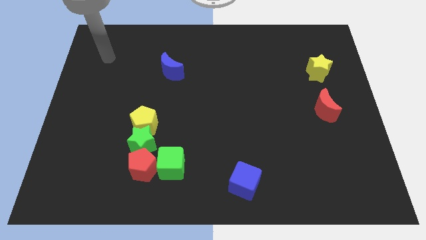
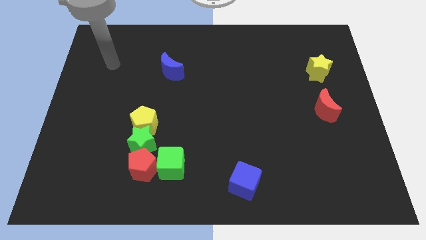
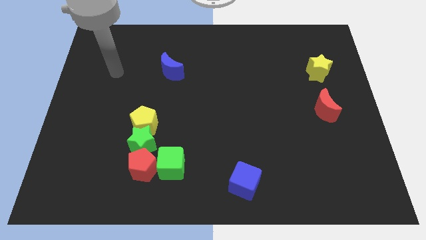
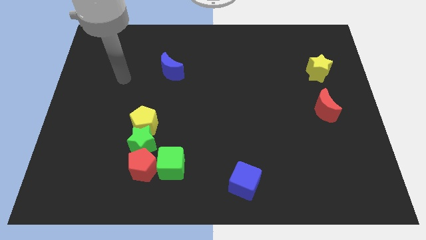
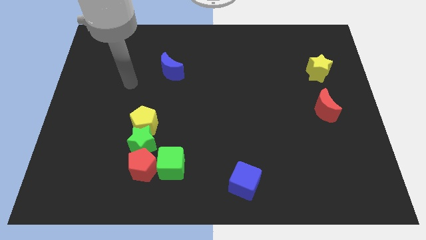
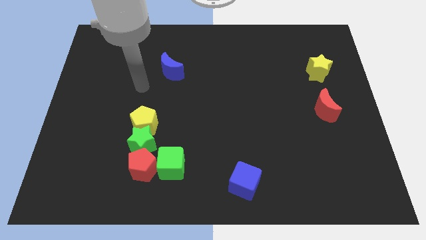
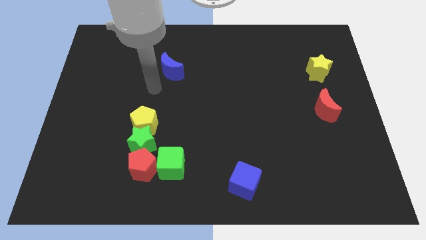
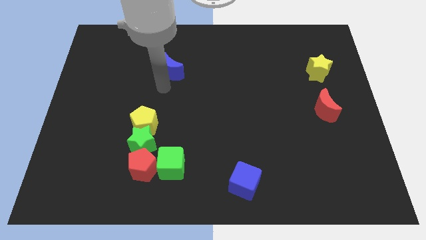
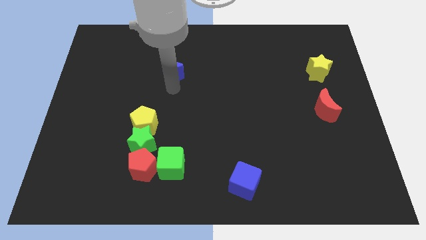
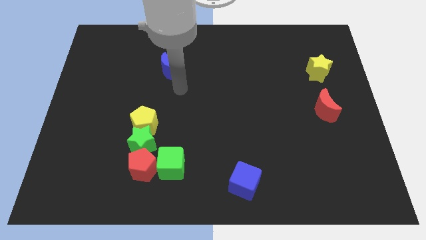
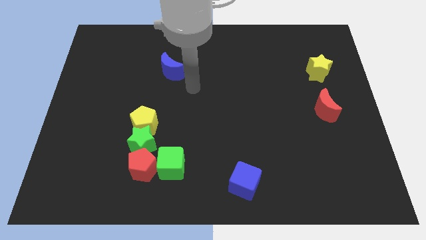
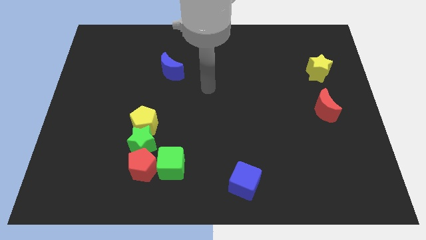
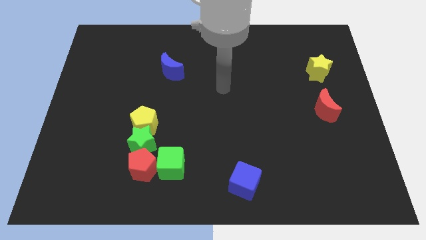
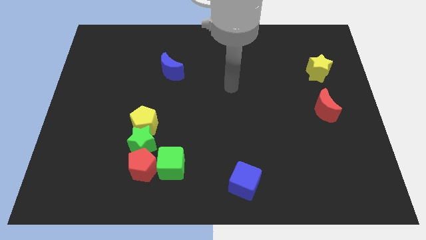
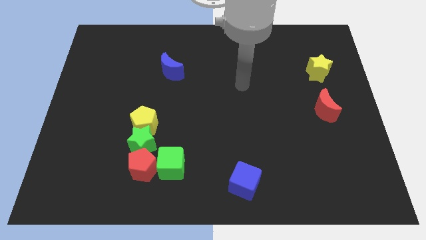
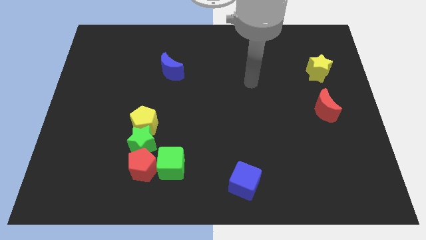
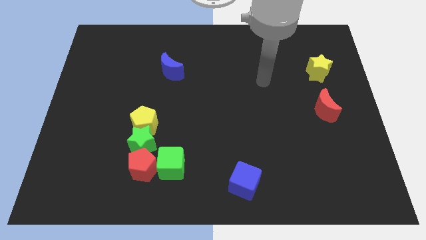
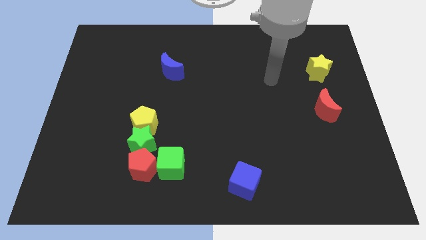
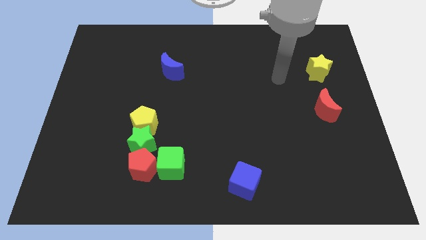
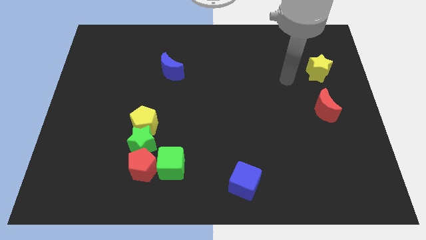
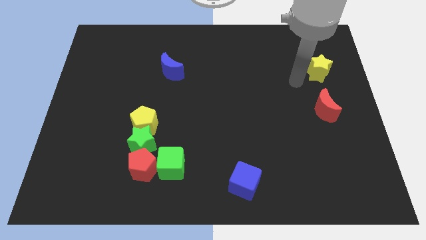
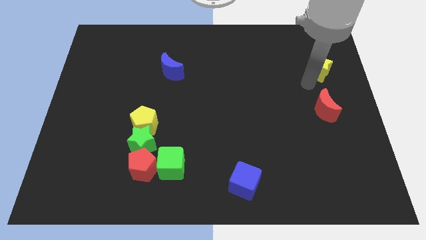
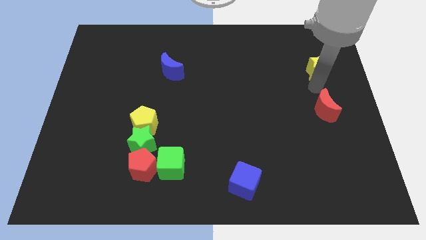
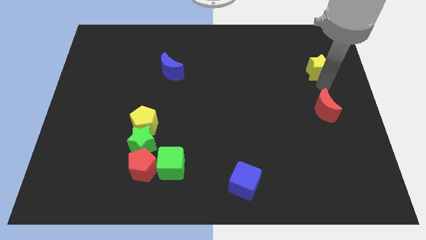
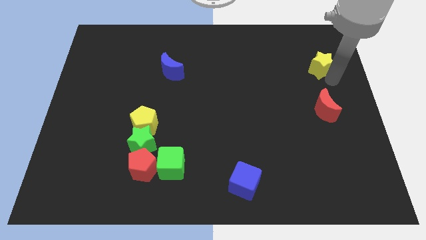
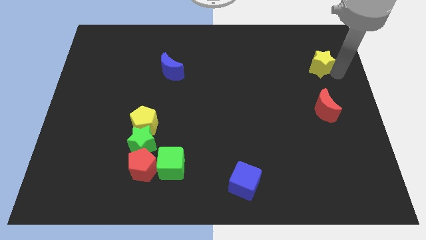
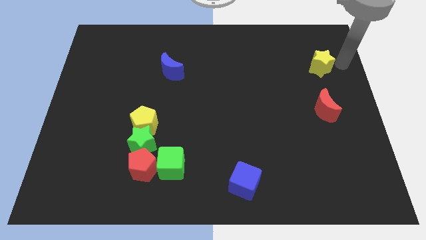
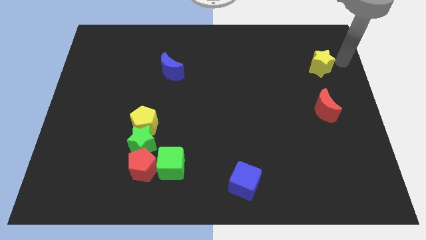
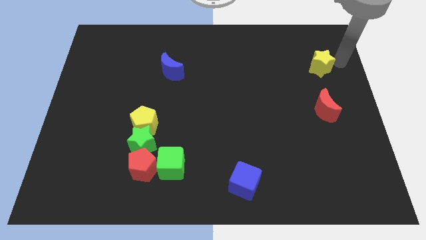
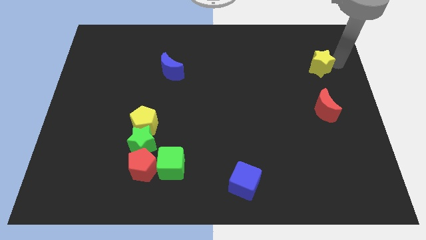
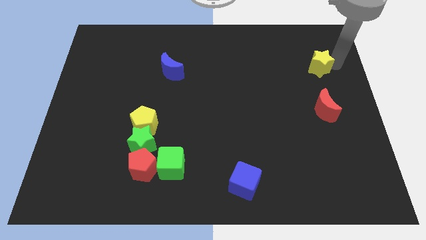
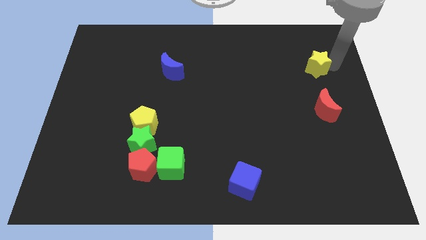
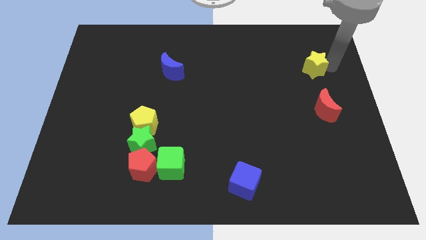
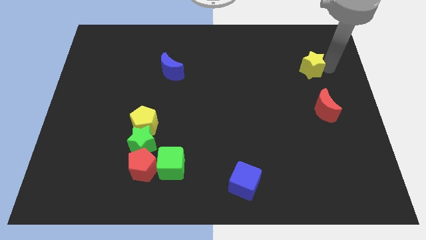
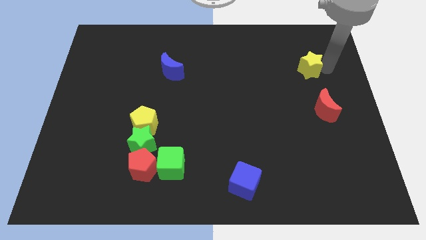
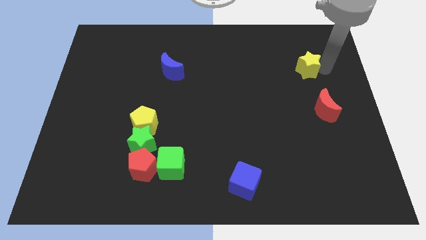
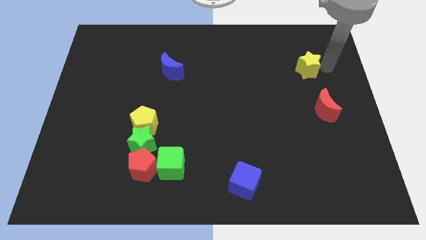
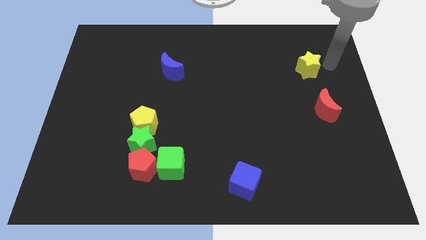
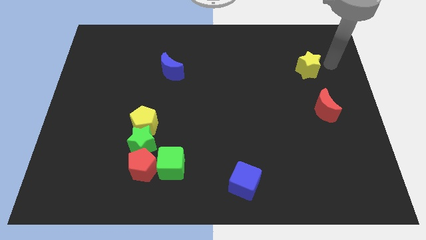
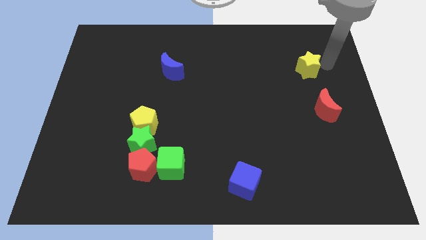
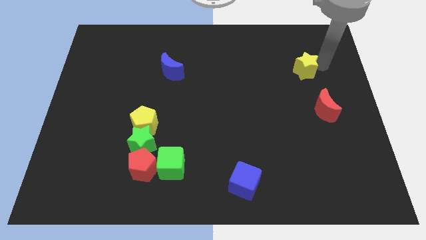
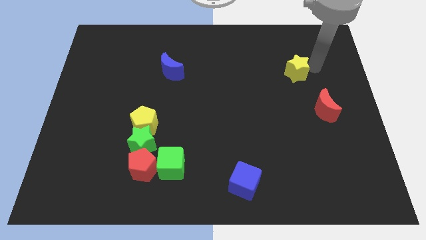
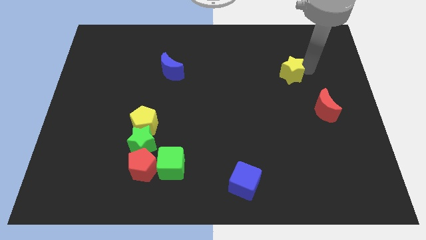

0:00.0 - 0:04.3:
move the yellow star somewhat to the left

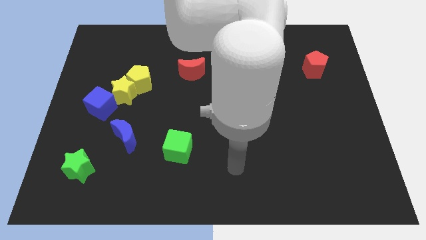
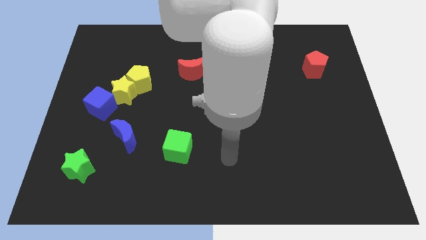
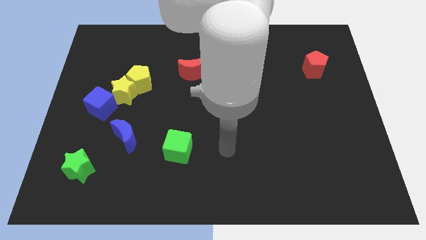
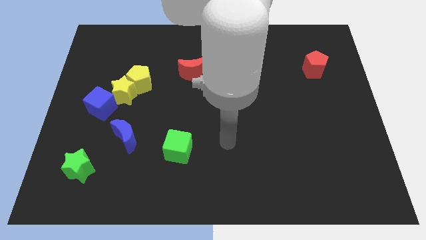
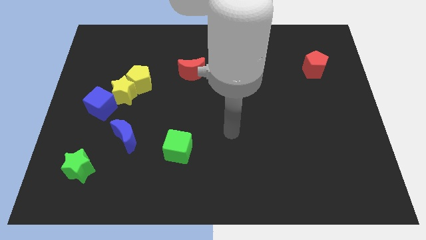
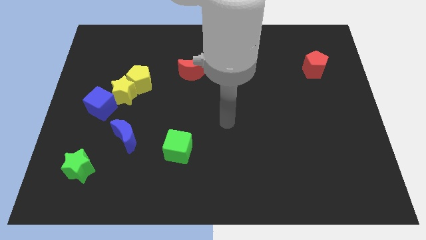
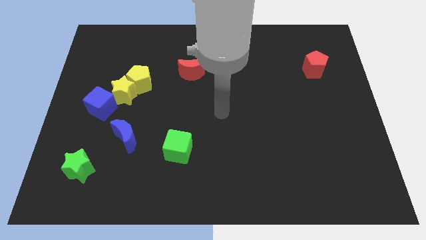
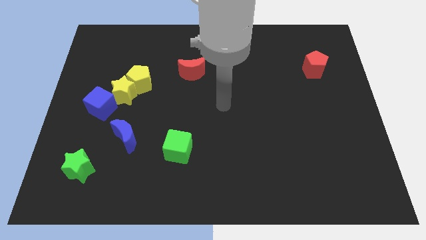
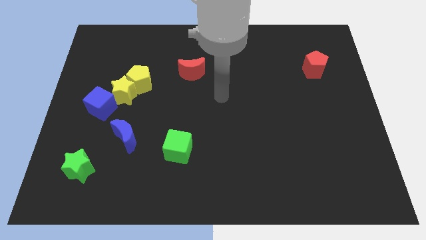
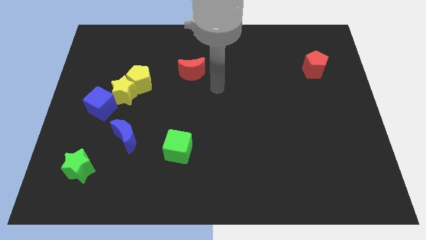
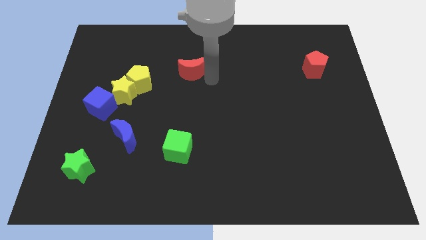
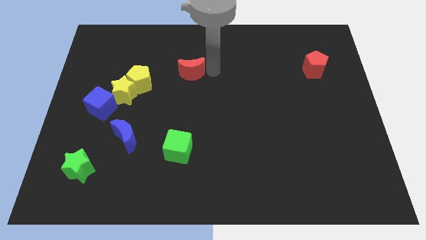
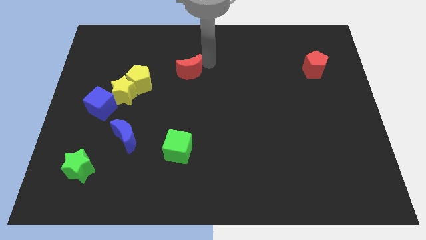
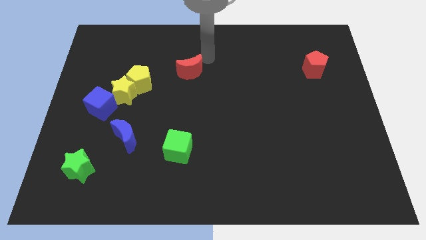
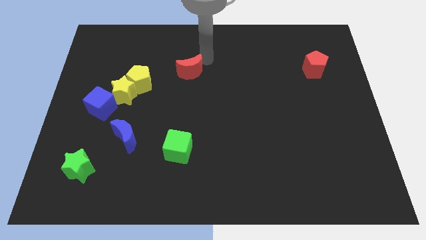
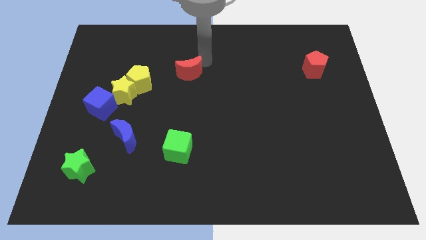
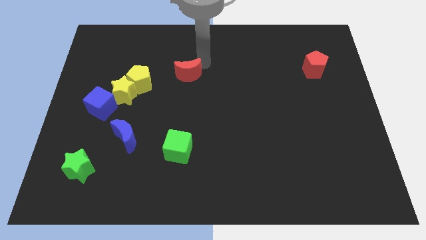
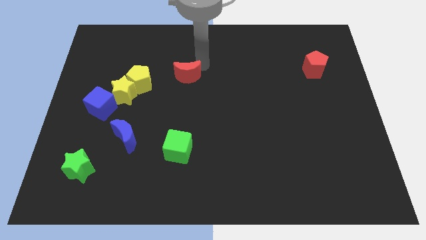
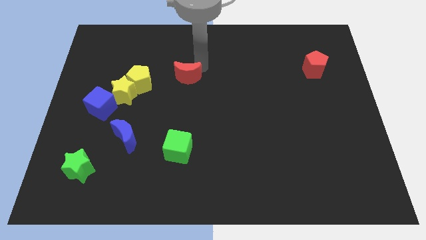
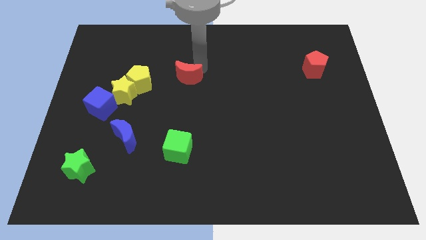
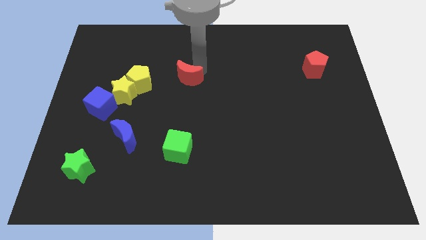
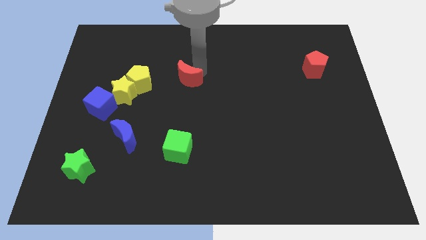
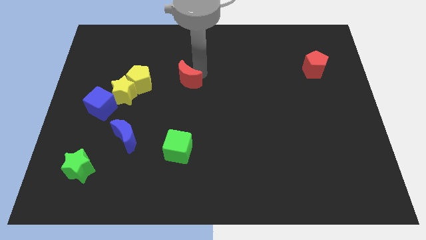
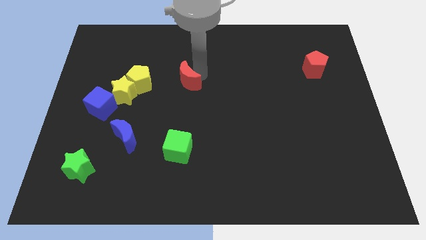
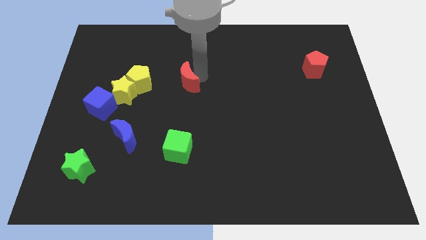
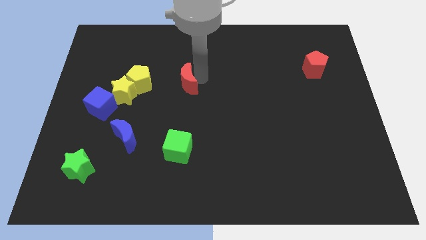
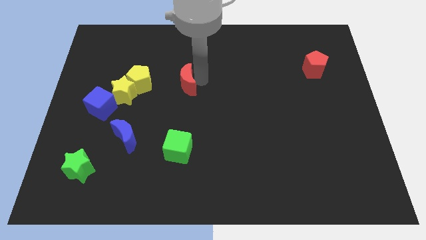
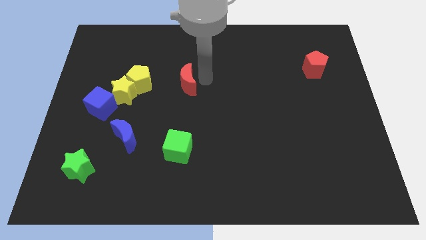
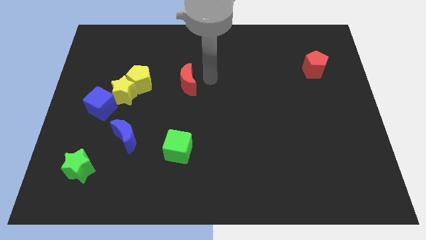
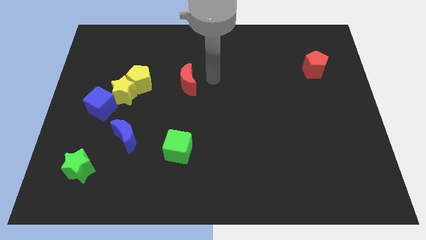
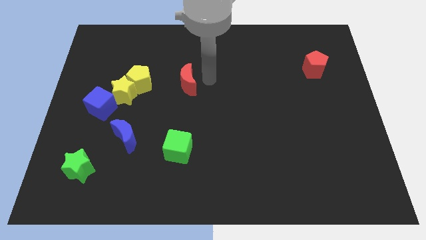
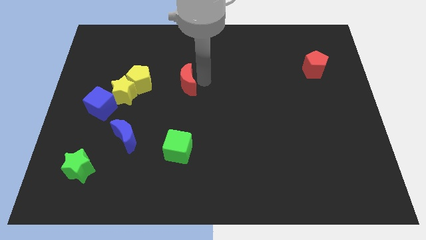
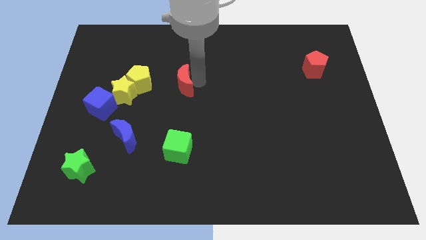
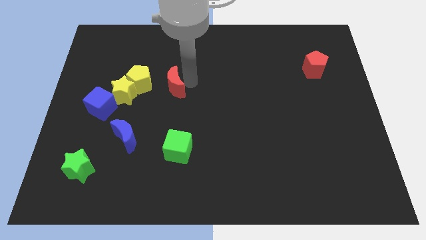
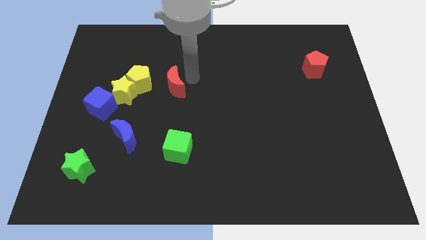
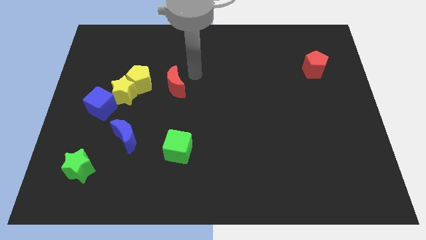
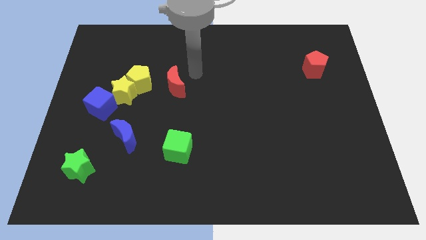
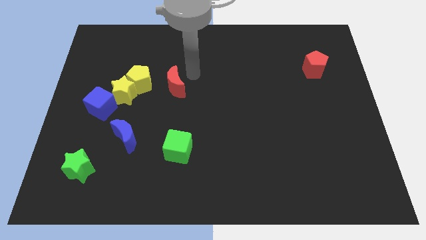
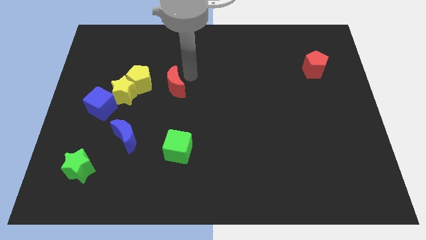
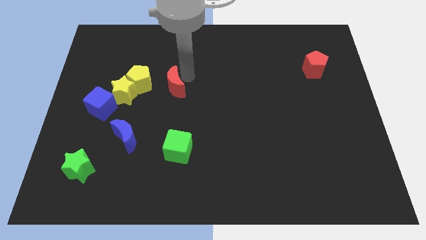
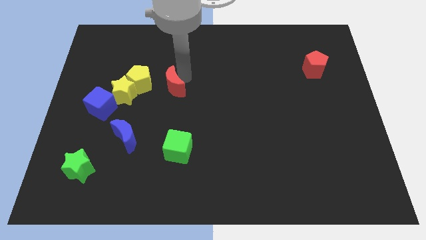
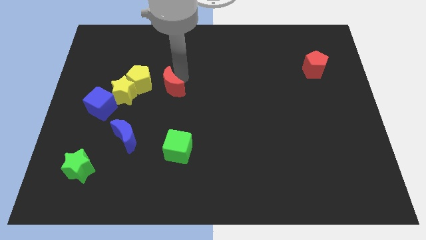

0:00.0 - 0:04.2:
slightly slide the red moon down and then left
